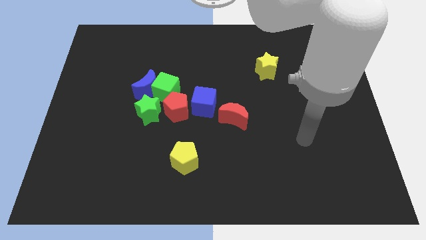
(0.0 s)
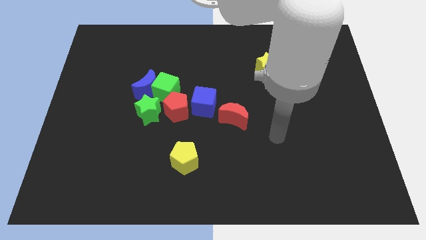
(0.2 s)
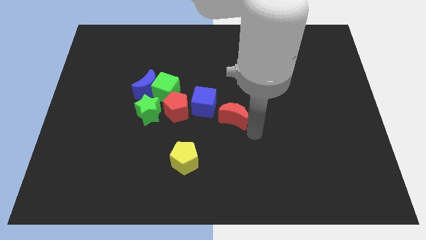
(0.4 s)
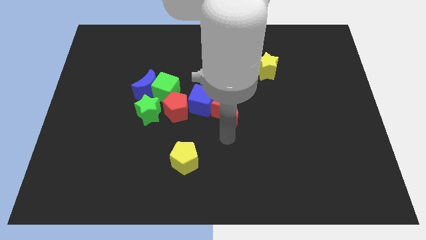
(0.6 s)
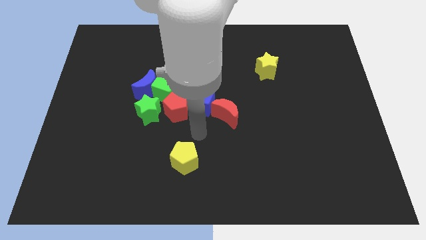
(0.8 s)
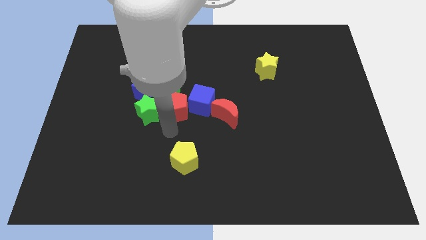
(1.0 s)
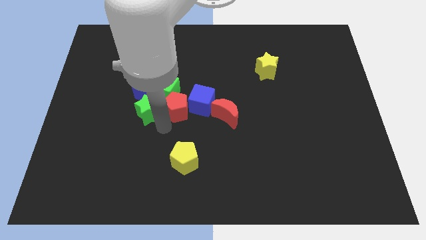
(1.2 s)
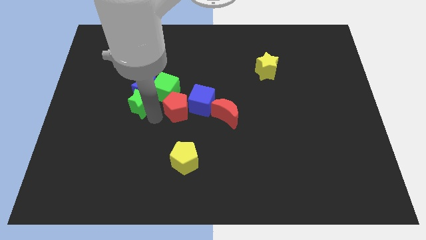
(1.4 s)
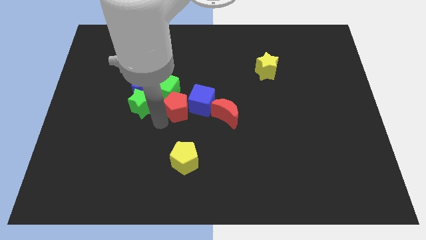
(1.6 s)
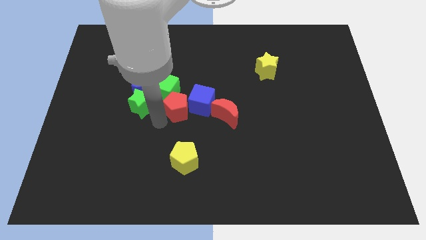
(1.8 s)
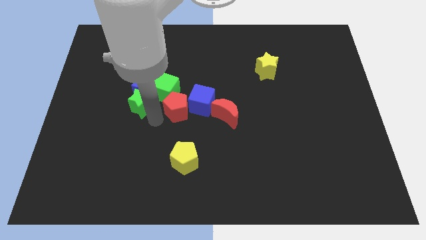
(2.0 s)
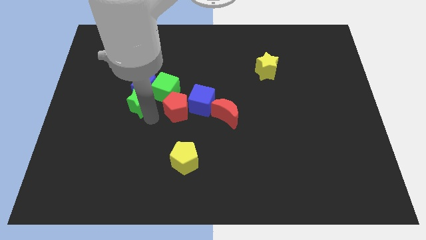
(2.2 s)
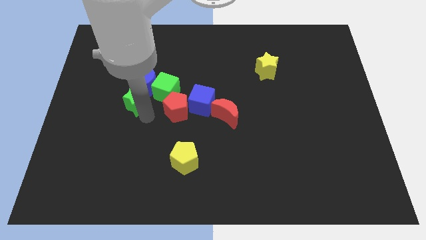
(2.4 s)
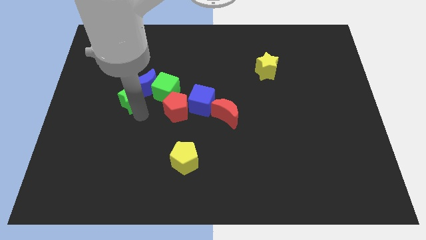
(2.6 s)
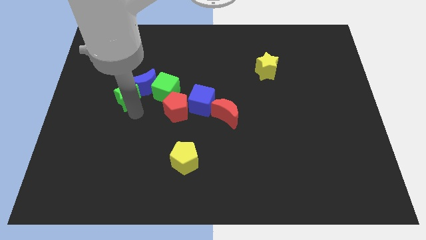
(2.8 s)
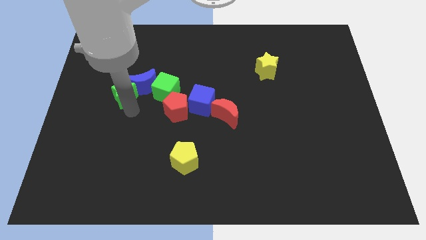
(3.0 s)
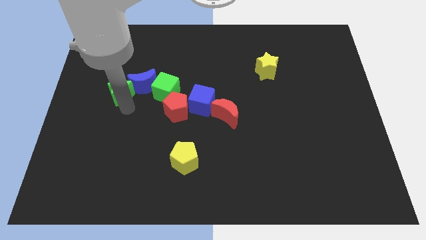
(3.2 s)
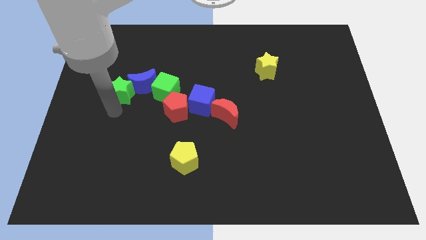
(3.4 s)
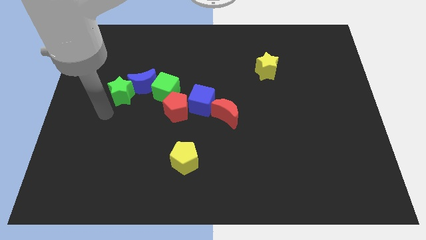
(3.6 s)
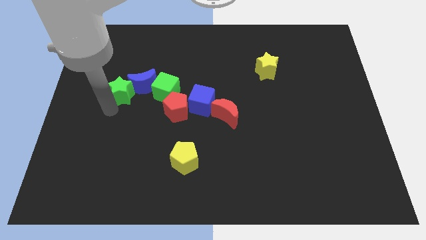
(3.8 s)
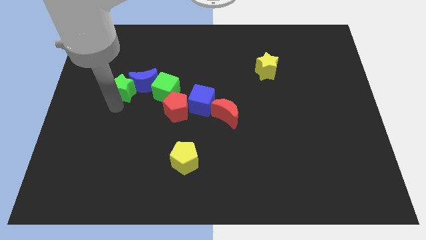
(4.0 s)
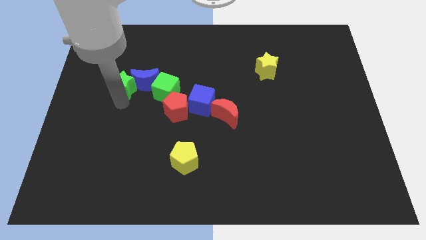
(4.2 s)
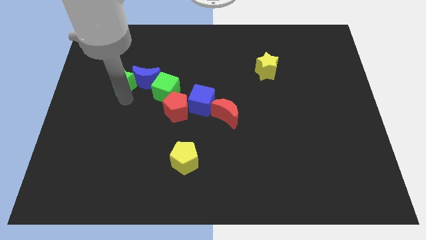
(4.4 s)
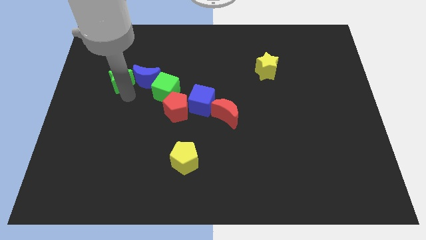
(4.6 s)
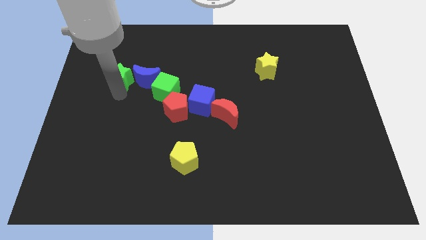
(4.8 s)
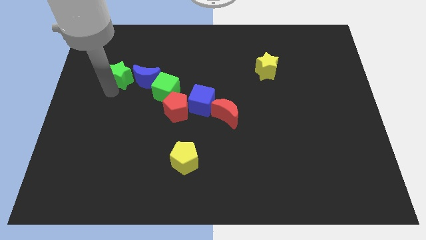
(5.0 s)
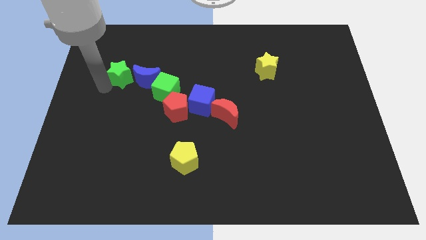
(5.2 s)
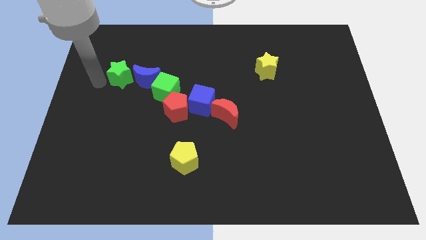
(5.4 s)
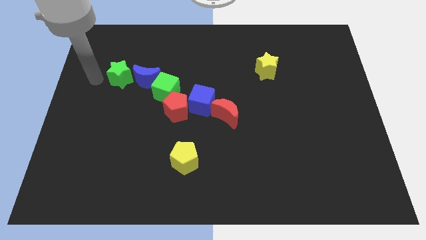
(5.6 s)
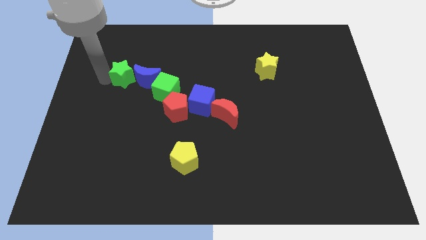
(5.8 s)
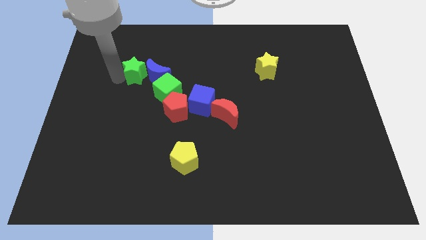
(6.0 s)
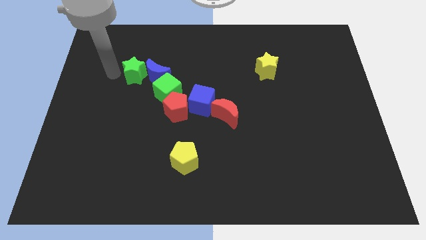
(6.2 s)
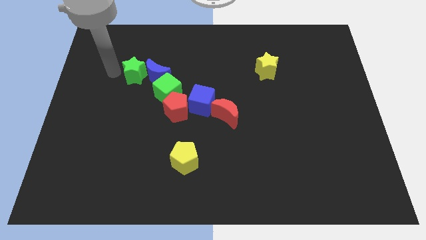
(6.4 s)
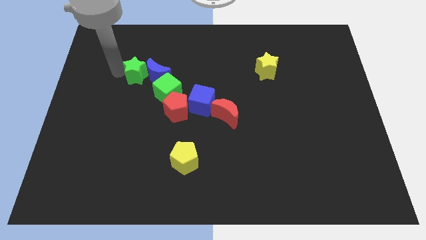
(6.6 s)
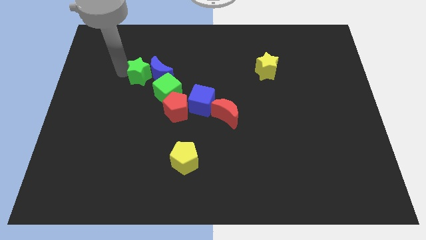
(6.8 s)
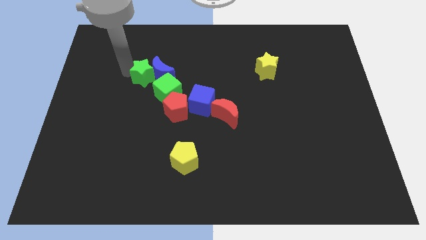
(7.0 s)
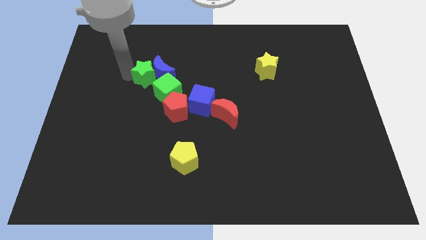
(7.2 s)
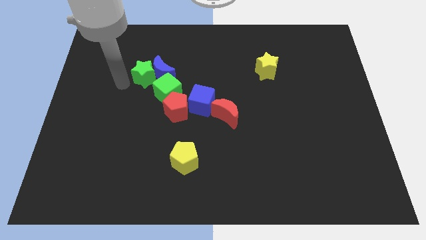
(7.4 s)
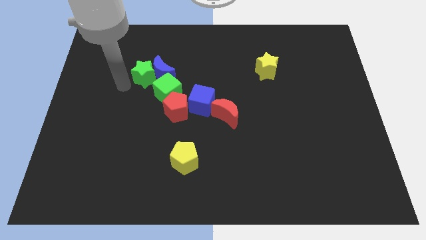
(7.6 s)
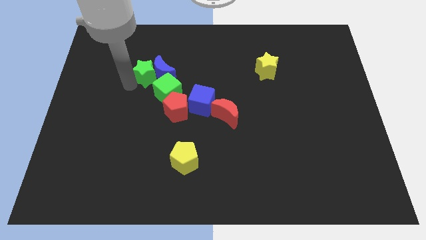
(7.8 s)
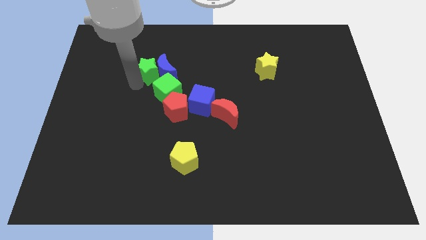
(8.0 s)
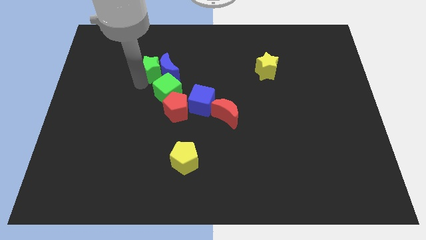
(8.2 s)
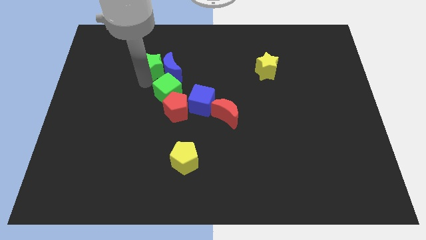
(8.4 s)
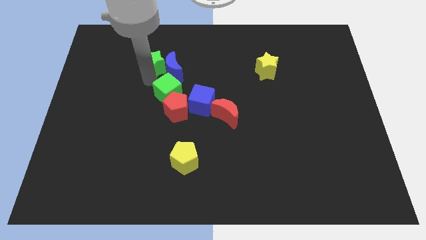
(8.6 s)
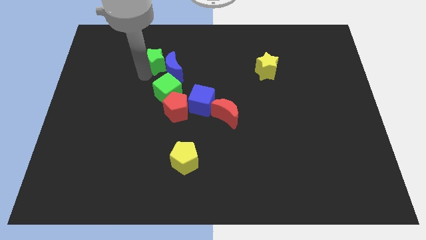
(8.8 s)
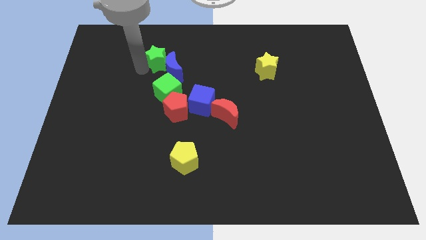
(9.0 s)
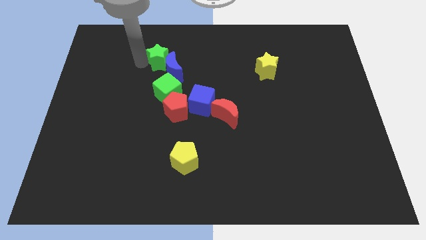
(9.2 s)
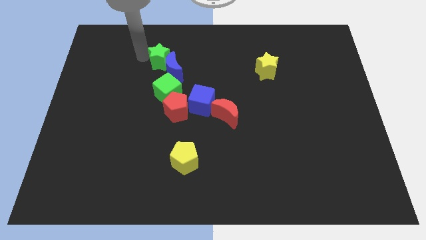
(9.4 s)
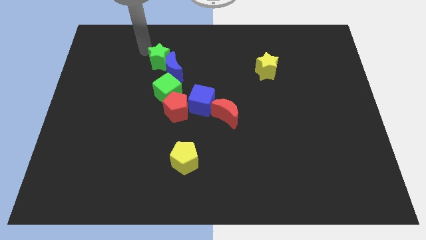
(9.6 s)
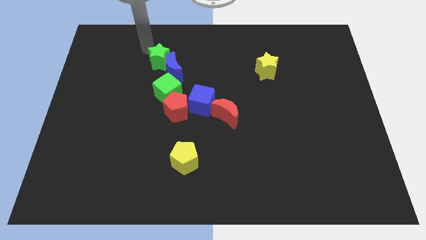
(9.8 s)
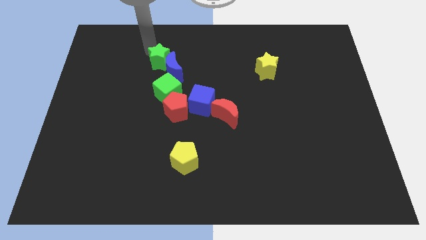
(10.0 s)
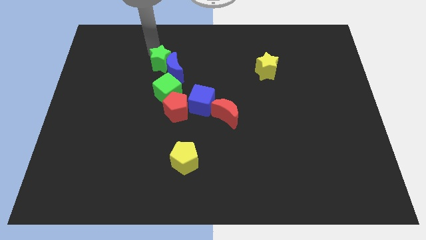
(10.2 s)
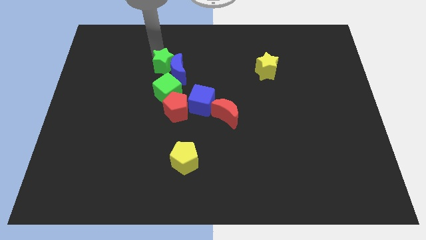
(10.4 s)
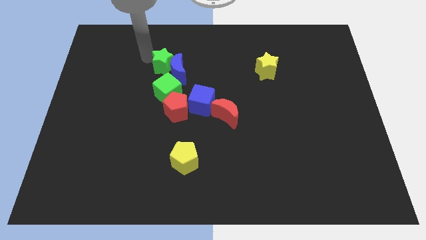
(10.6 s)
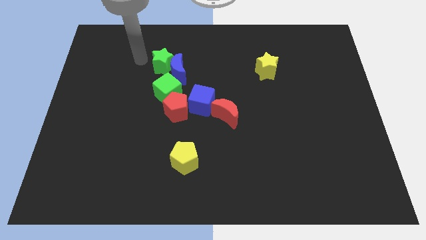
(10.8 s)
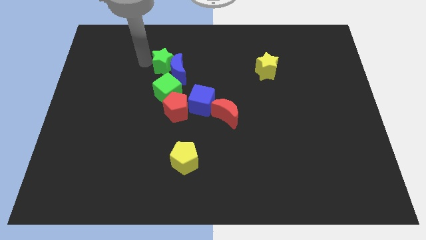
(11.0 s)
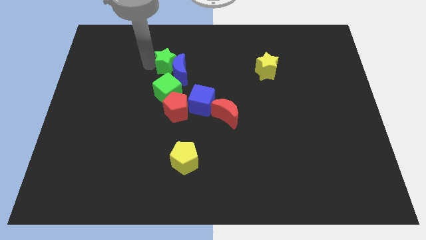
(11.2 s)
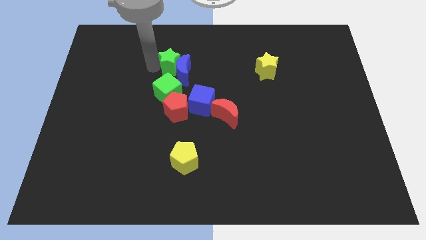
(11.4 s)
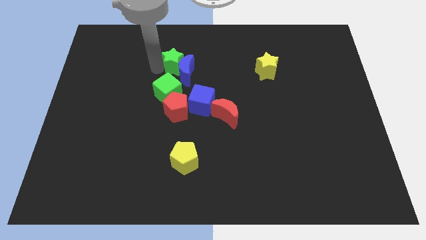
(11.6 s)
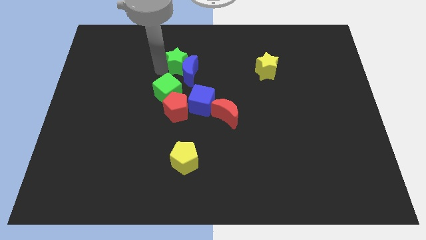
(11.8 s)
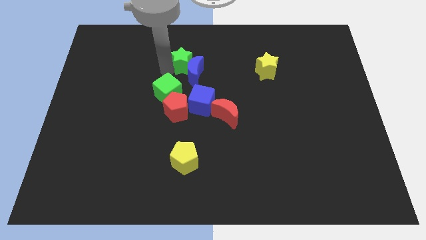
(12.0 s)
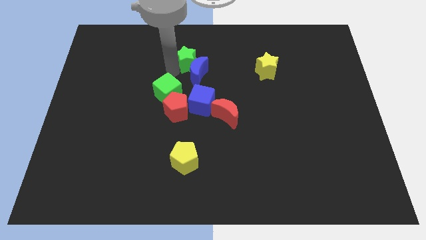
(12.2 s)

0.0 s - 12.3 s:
slide the green star to the top of the blue cube

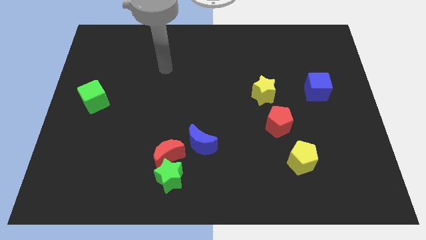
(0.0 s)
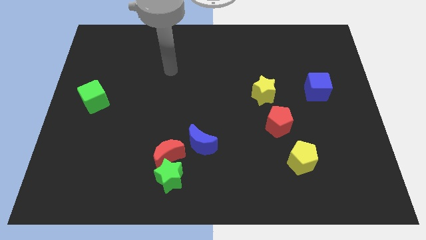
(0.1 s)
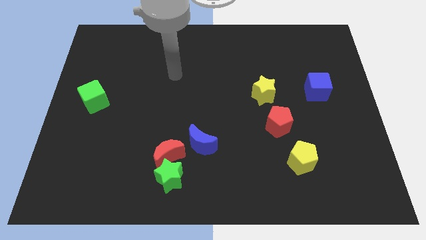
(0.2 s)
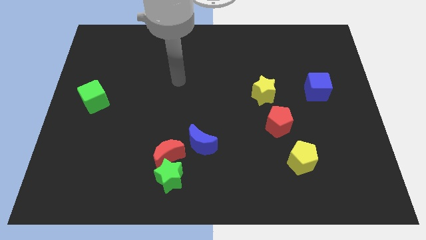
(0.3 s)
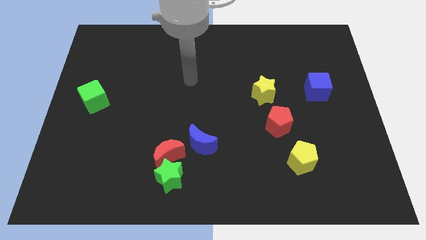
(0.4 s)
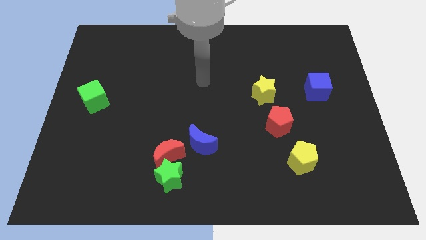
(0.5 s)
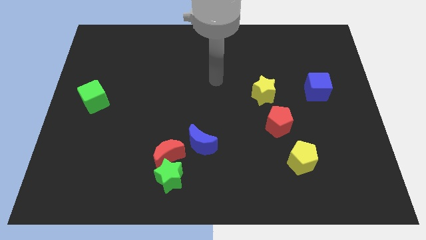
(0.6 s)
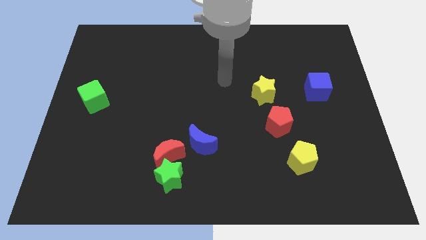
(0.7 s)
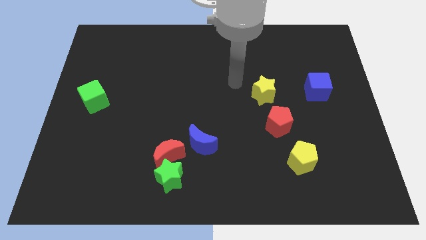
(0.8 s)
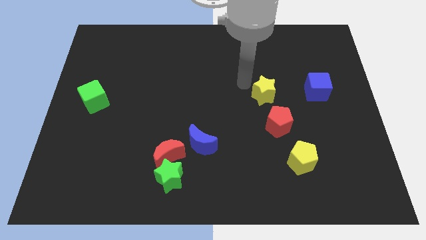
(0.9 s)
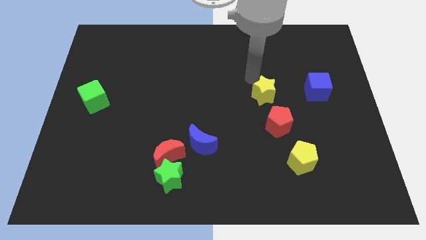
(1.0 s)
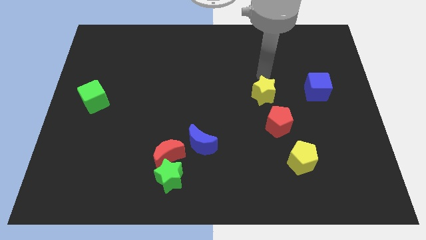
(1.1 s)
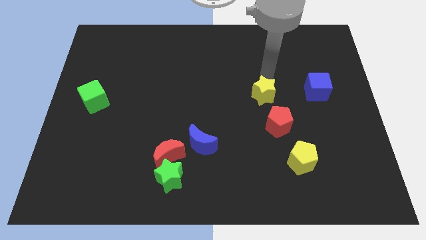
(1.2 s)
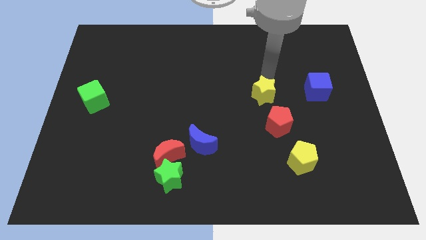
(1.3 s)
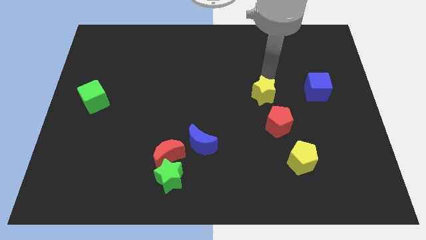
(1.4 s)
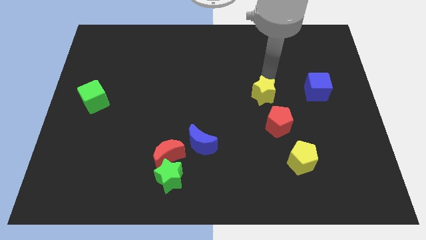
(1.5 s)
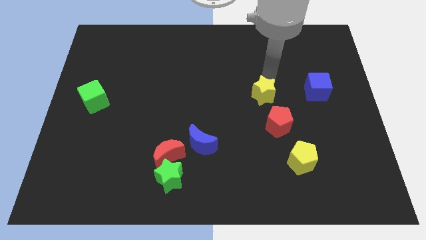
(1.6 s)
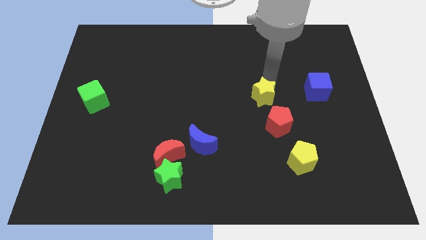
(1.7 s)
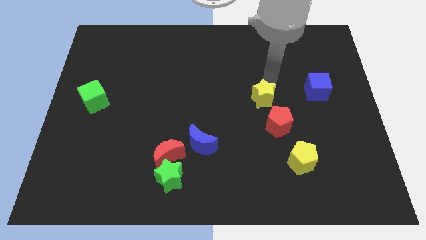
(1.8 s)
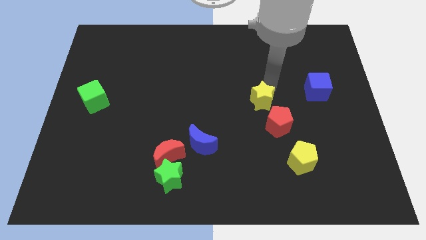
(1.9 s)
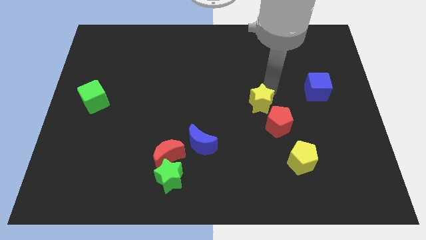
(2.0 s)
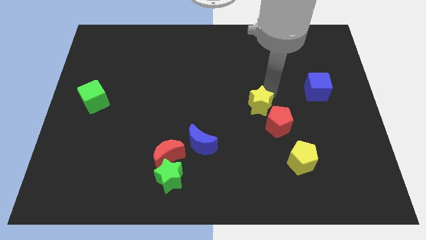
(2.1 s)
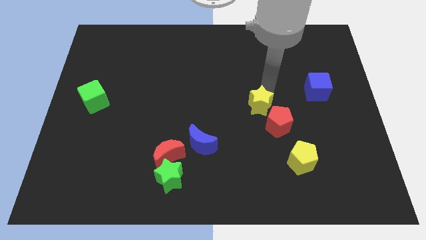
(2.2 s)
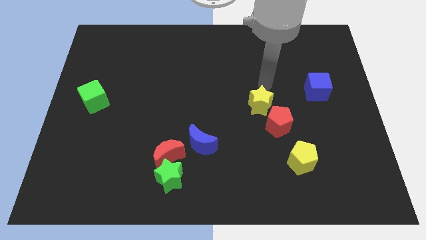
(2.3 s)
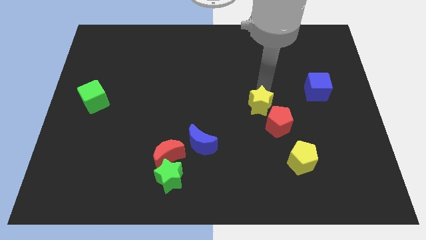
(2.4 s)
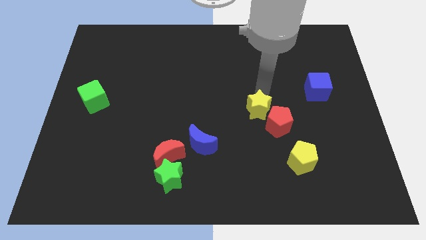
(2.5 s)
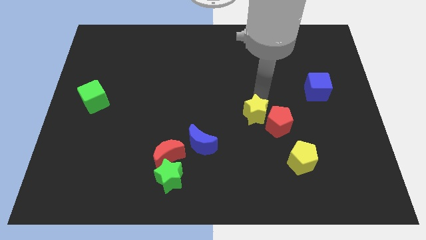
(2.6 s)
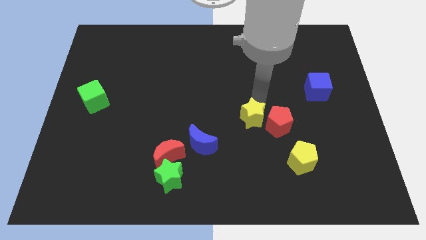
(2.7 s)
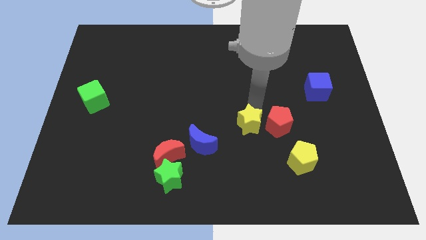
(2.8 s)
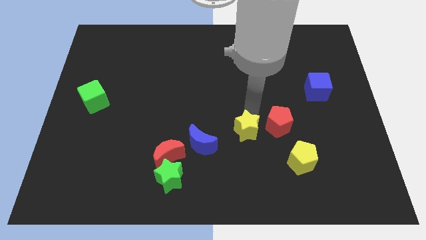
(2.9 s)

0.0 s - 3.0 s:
put the yellow star to the right of the blue moon
